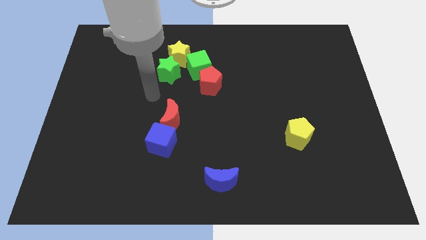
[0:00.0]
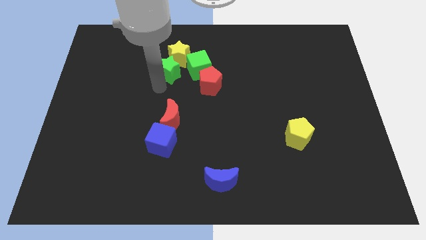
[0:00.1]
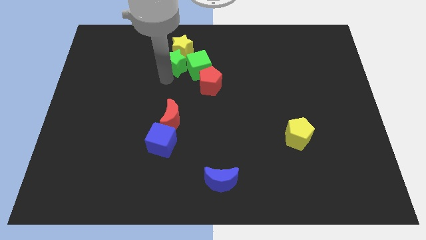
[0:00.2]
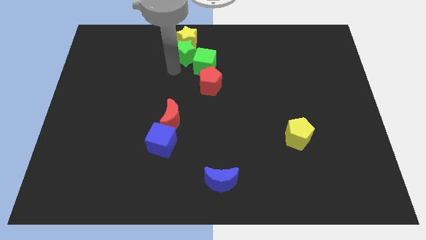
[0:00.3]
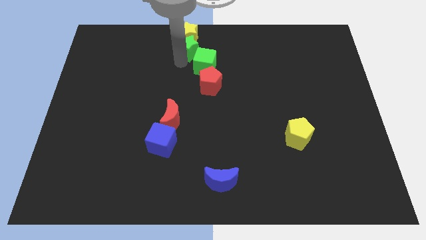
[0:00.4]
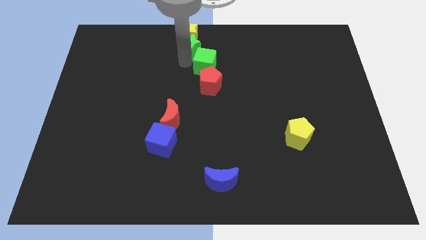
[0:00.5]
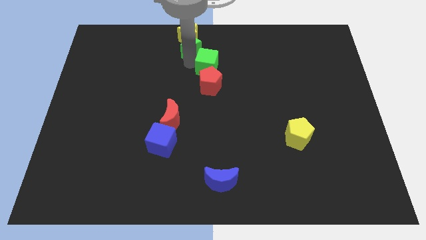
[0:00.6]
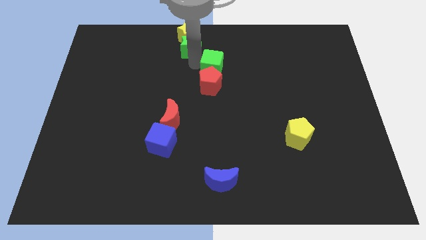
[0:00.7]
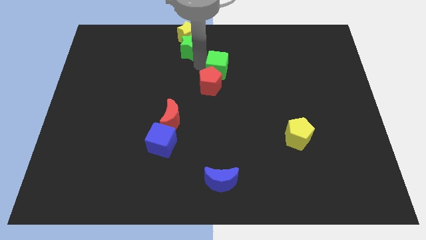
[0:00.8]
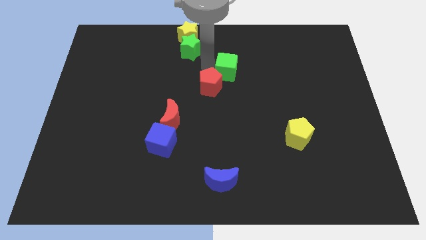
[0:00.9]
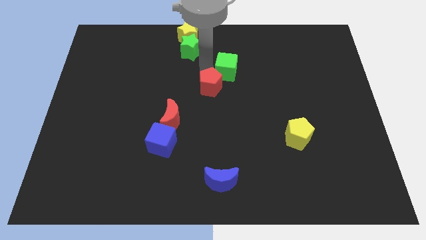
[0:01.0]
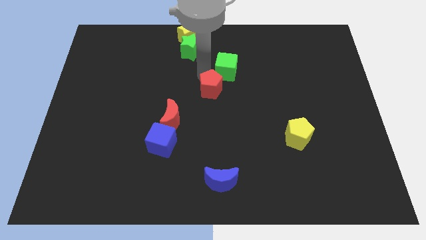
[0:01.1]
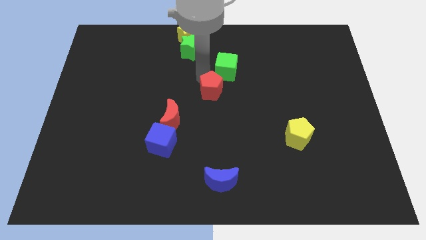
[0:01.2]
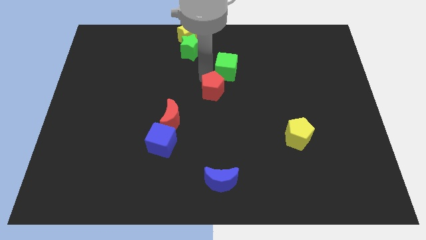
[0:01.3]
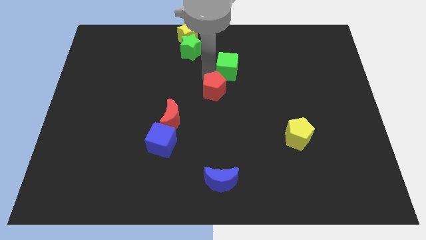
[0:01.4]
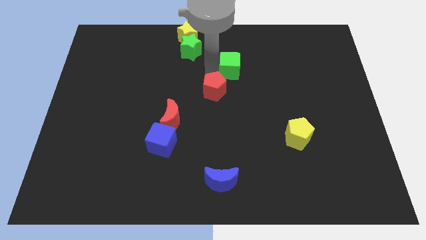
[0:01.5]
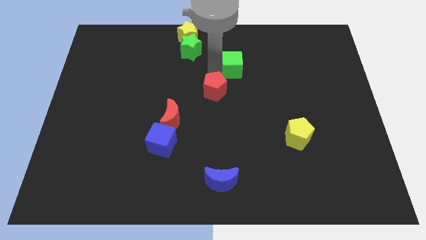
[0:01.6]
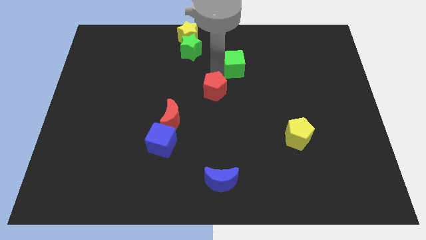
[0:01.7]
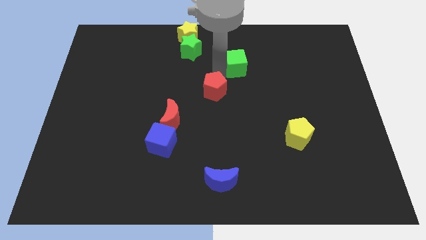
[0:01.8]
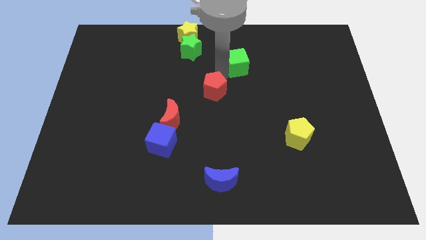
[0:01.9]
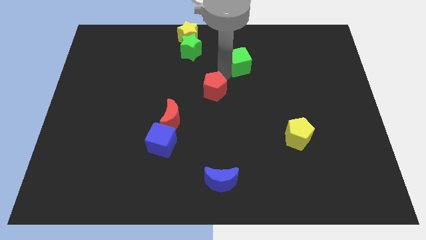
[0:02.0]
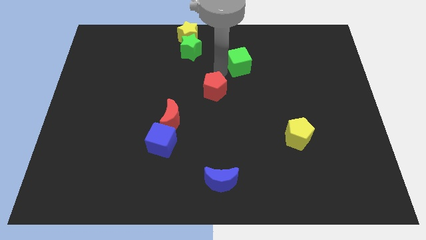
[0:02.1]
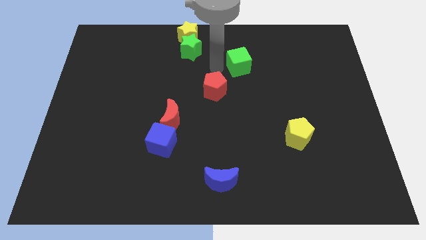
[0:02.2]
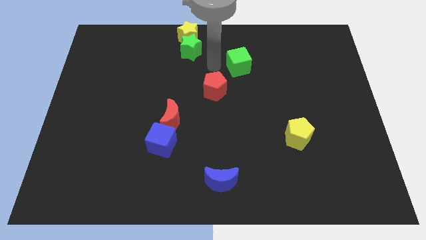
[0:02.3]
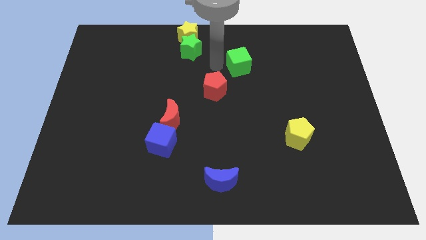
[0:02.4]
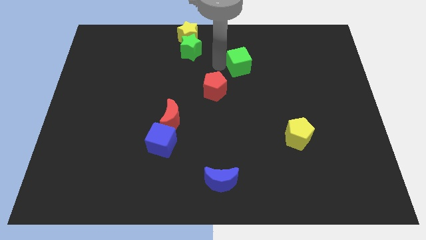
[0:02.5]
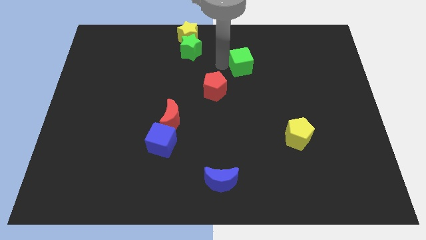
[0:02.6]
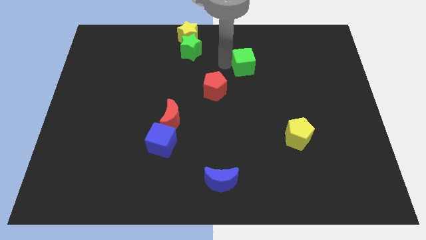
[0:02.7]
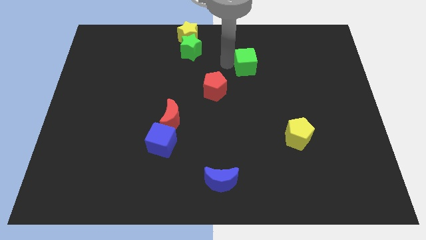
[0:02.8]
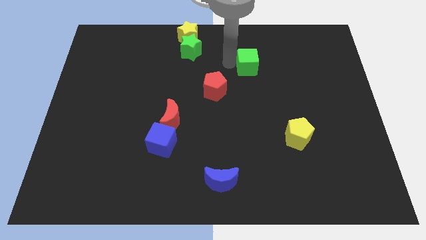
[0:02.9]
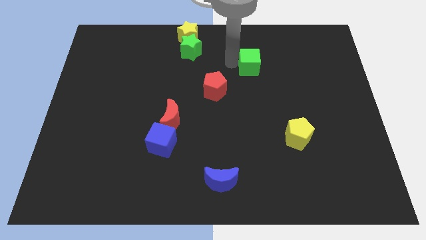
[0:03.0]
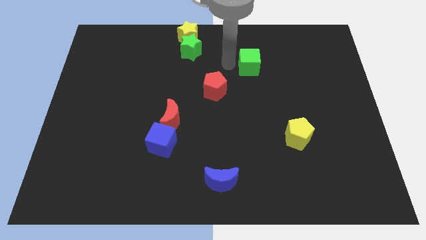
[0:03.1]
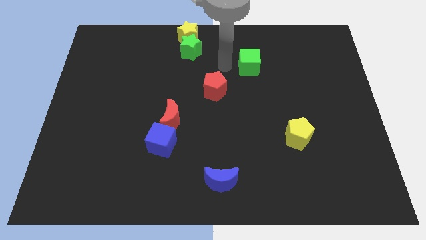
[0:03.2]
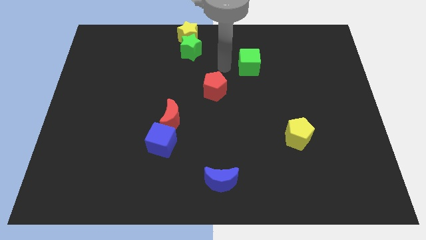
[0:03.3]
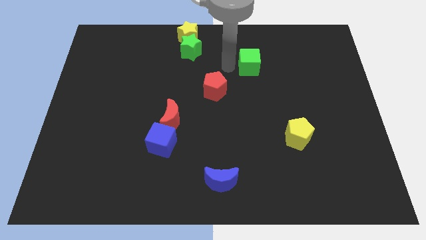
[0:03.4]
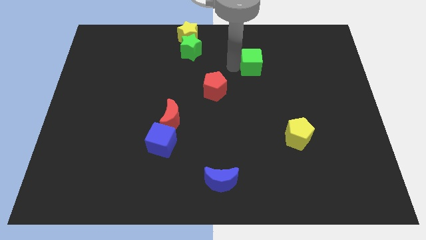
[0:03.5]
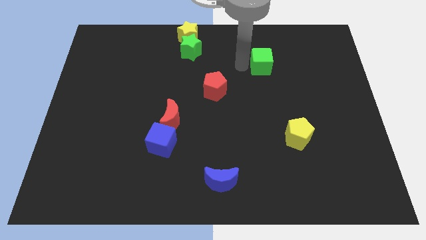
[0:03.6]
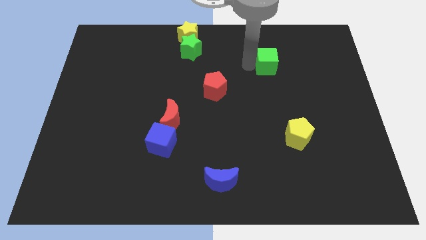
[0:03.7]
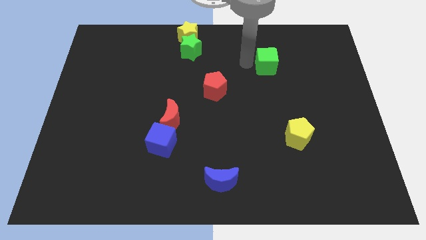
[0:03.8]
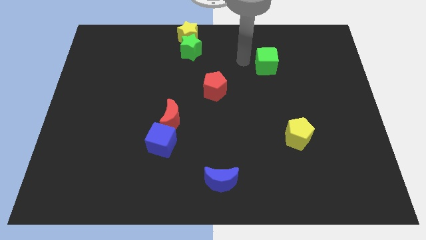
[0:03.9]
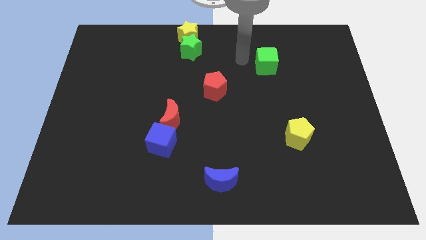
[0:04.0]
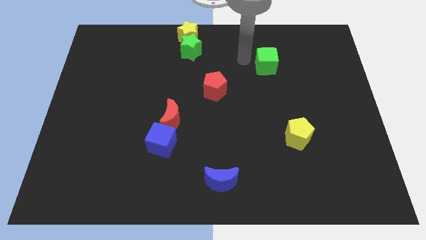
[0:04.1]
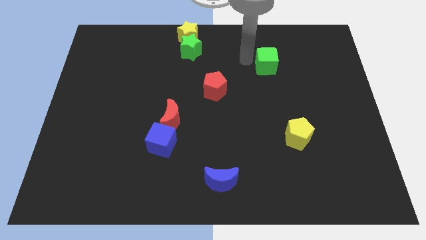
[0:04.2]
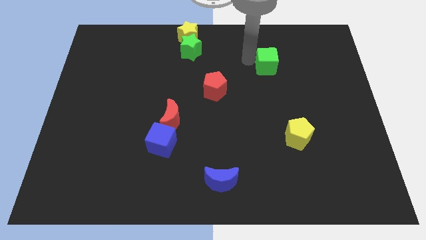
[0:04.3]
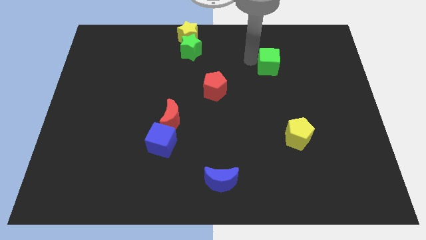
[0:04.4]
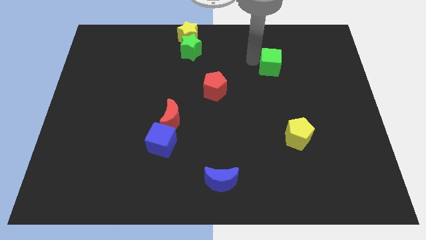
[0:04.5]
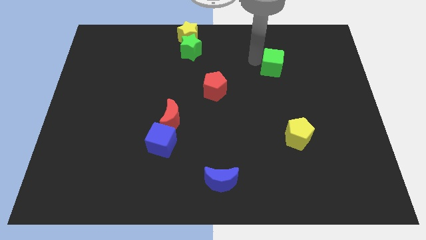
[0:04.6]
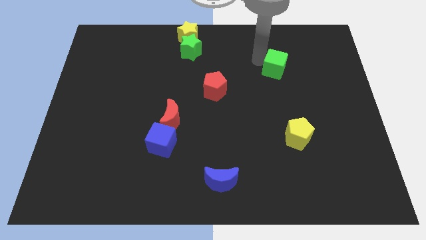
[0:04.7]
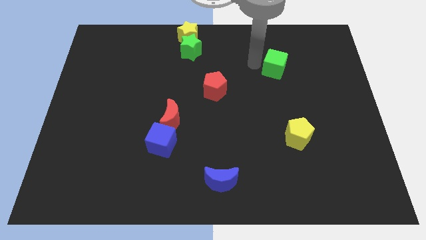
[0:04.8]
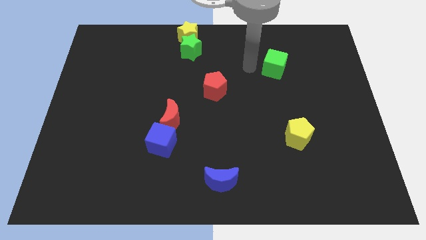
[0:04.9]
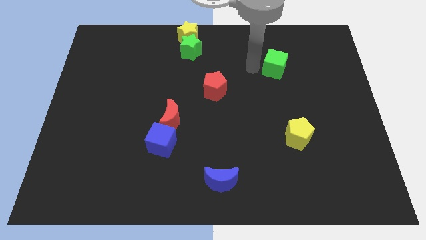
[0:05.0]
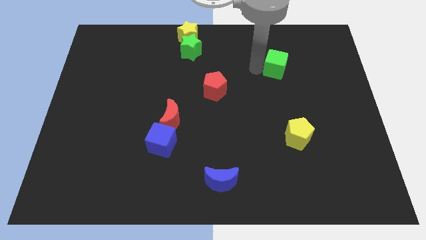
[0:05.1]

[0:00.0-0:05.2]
push the green cube right

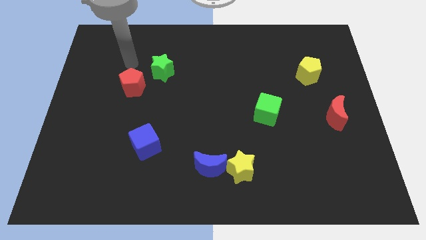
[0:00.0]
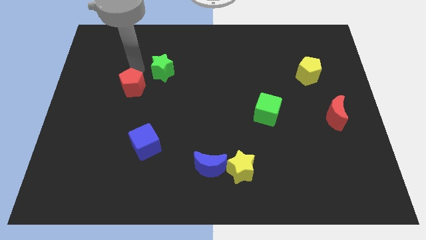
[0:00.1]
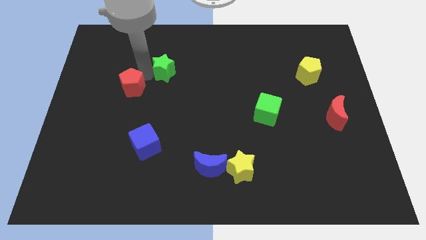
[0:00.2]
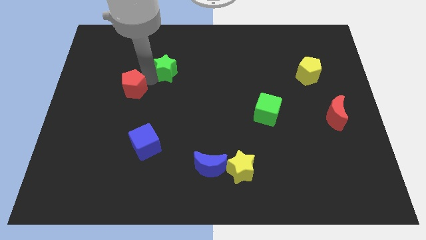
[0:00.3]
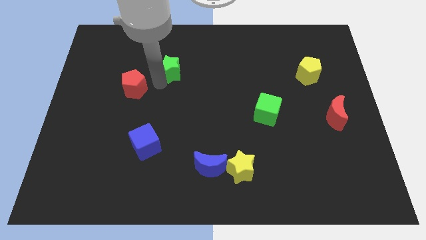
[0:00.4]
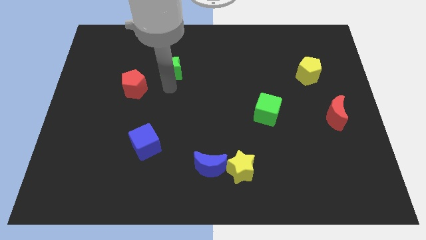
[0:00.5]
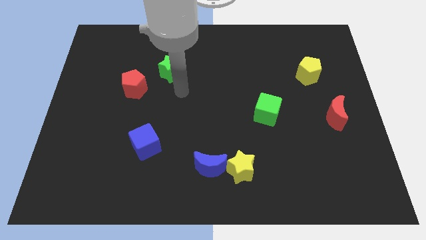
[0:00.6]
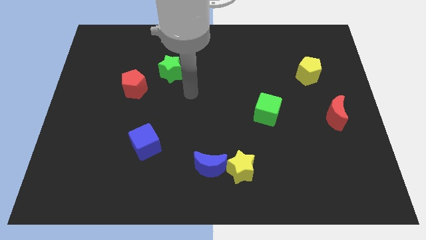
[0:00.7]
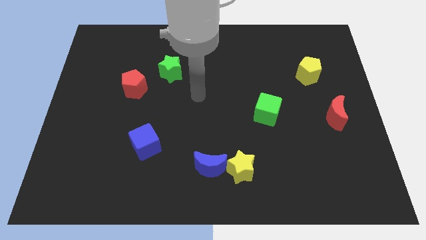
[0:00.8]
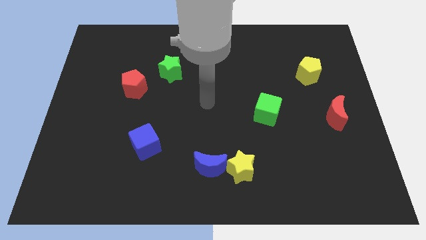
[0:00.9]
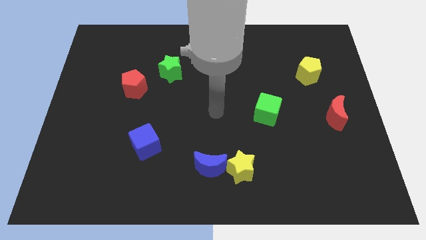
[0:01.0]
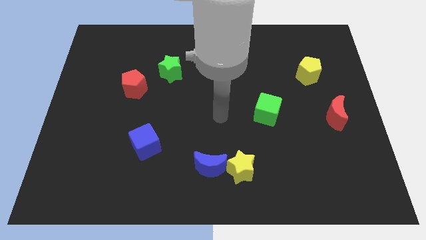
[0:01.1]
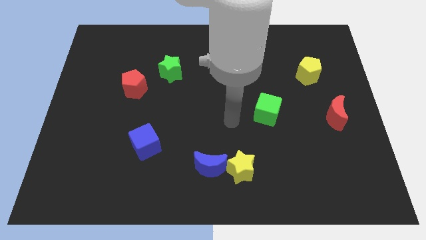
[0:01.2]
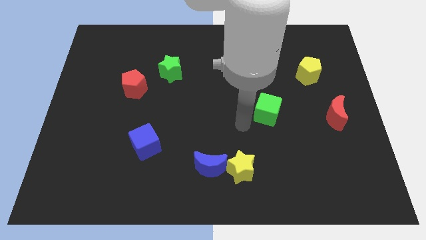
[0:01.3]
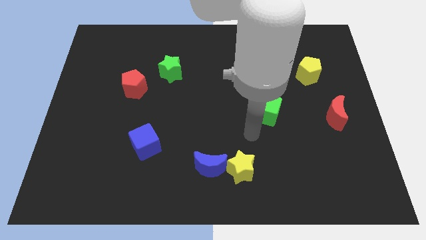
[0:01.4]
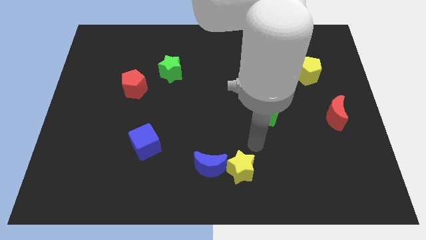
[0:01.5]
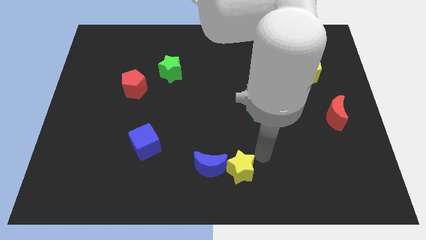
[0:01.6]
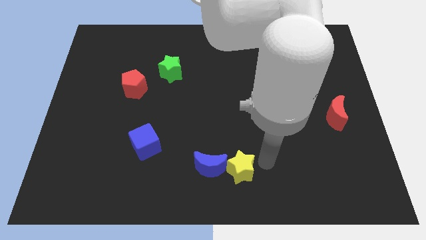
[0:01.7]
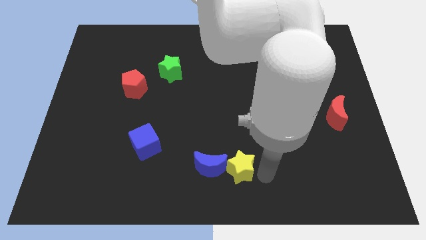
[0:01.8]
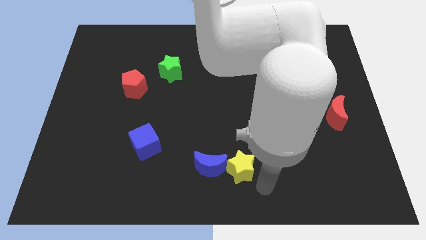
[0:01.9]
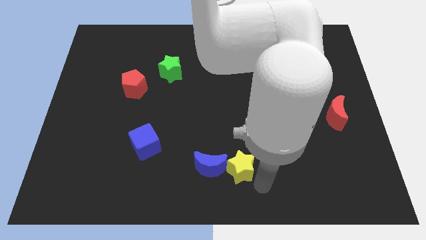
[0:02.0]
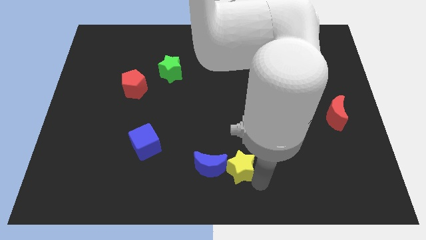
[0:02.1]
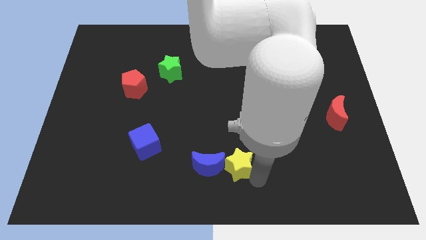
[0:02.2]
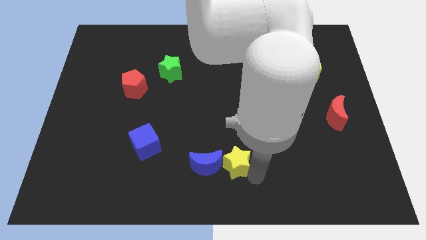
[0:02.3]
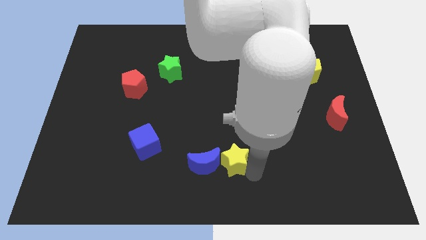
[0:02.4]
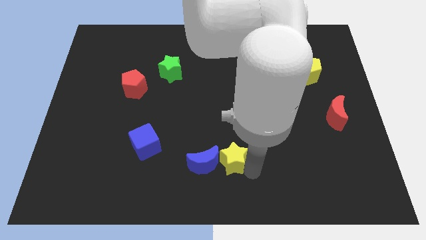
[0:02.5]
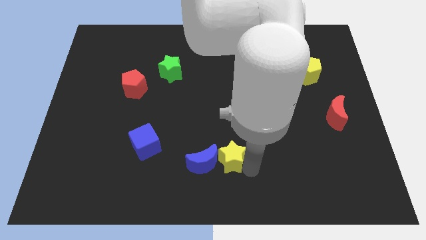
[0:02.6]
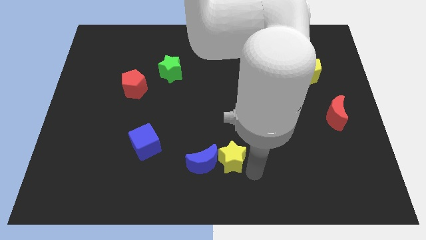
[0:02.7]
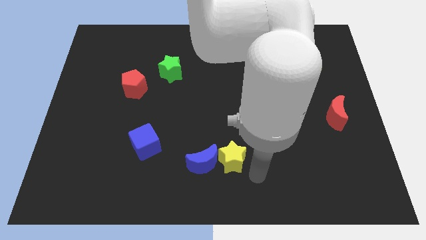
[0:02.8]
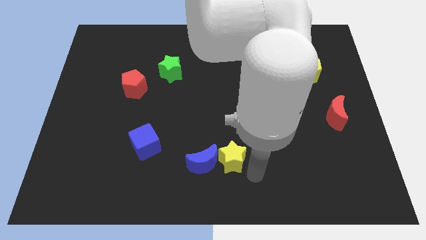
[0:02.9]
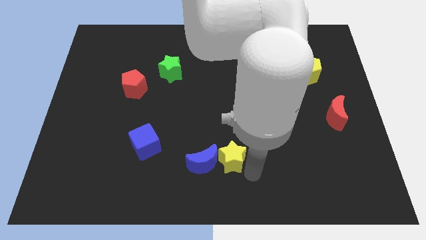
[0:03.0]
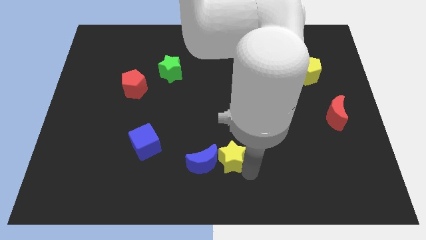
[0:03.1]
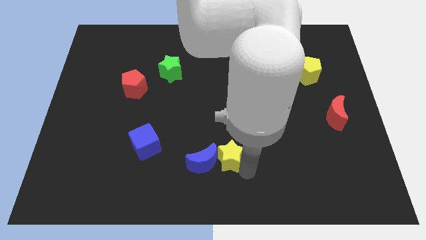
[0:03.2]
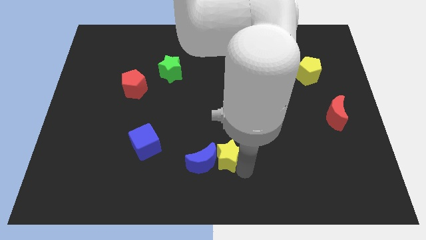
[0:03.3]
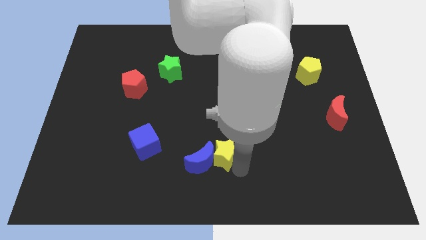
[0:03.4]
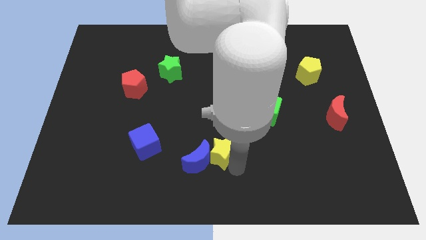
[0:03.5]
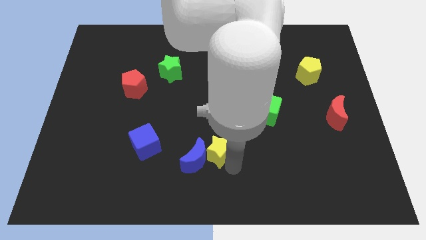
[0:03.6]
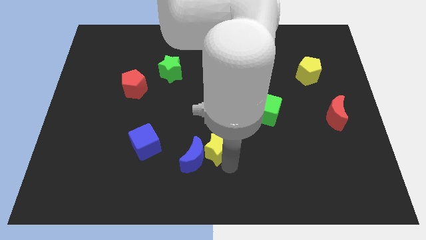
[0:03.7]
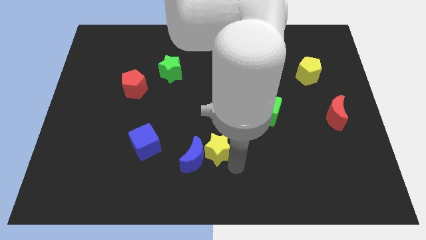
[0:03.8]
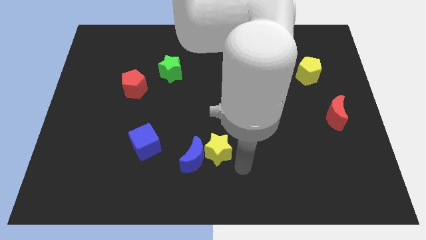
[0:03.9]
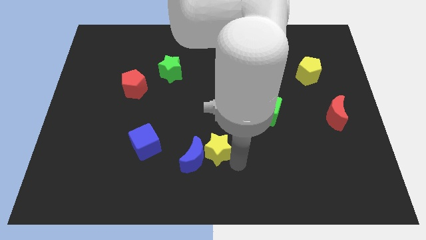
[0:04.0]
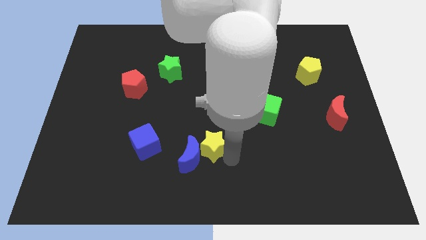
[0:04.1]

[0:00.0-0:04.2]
move the yellow star slightly up and left diagonally
